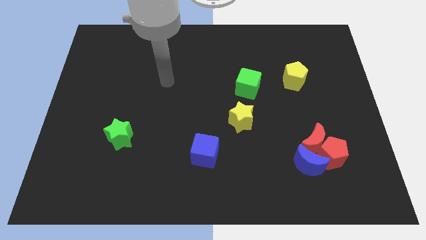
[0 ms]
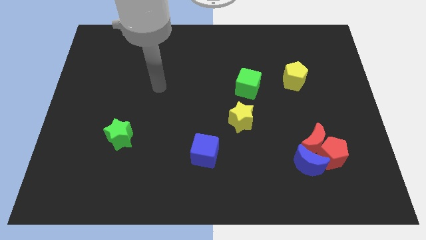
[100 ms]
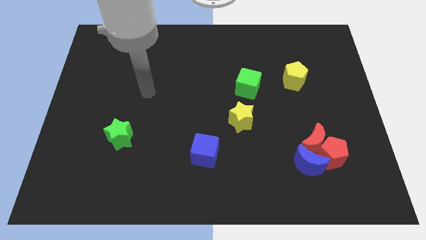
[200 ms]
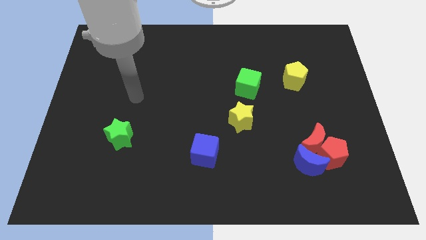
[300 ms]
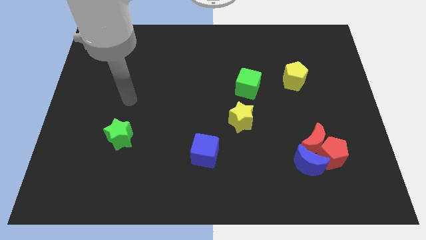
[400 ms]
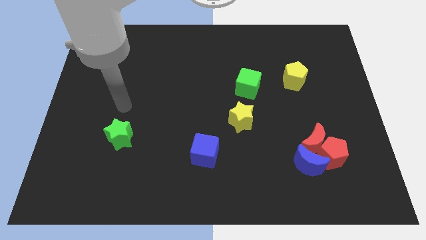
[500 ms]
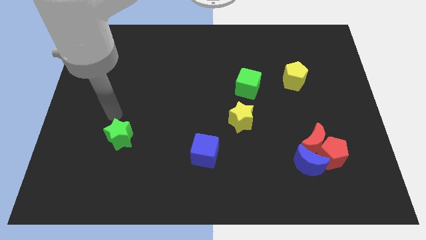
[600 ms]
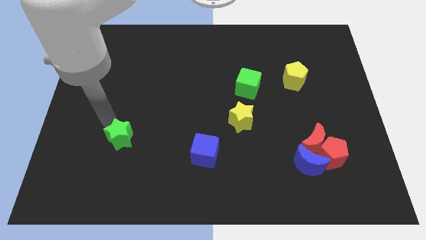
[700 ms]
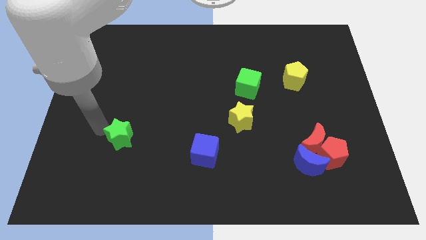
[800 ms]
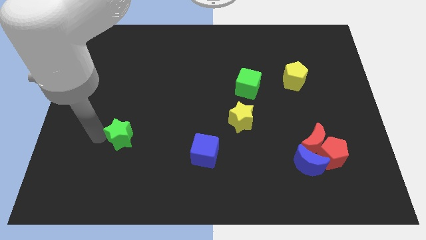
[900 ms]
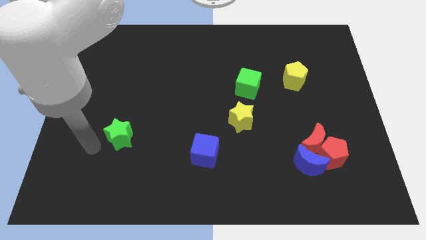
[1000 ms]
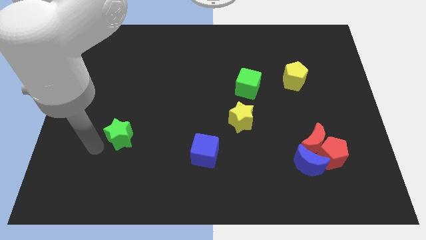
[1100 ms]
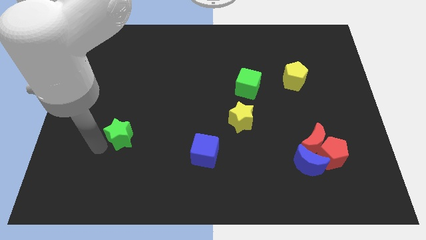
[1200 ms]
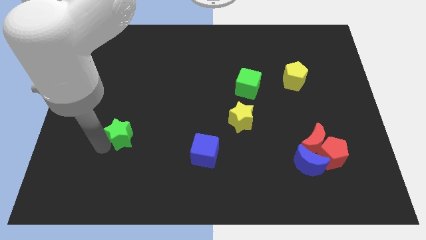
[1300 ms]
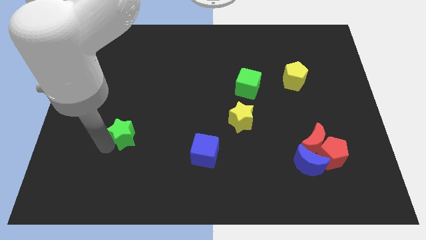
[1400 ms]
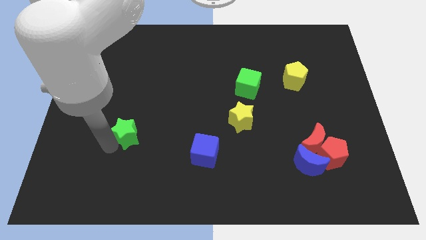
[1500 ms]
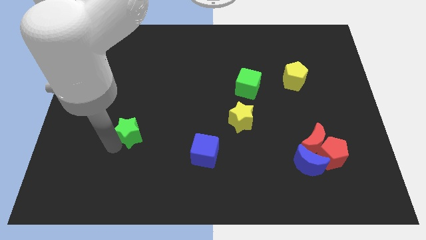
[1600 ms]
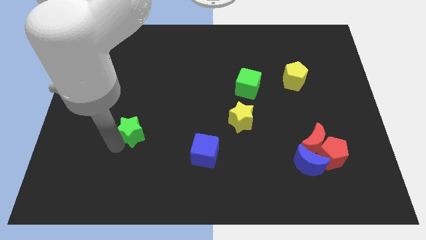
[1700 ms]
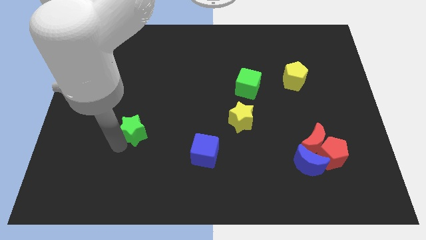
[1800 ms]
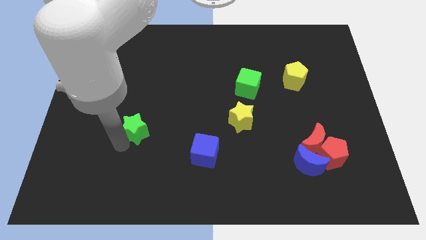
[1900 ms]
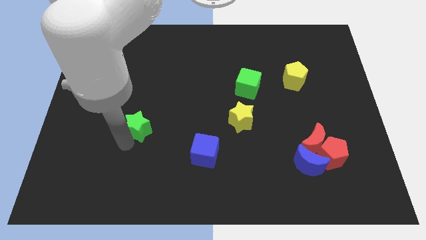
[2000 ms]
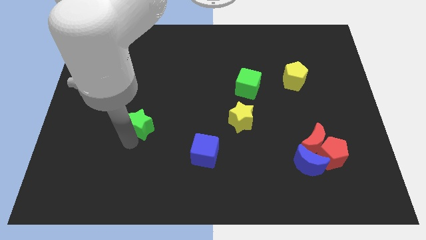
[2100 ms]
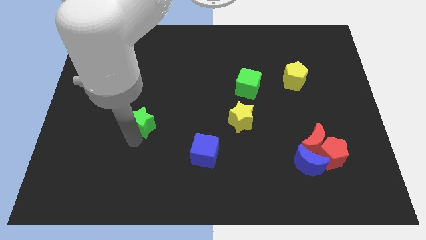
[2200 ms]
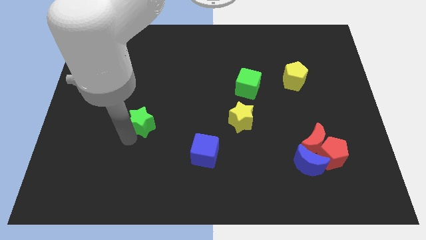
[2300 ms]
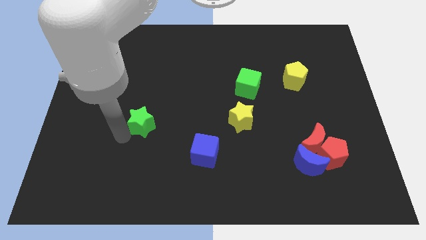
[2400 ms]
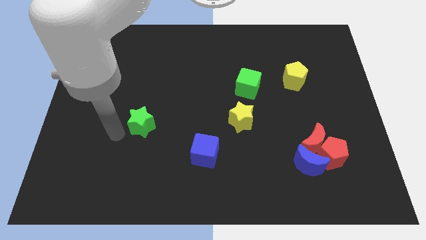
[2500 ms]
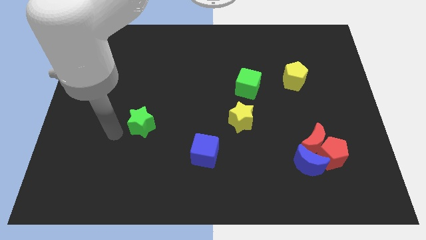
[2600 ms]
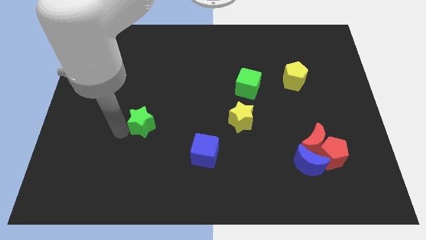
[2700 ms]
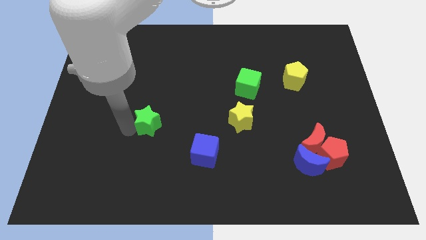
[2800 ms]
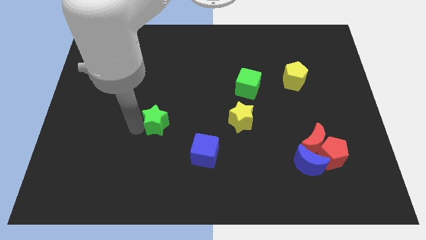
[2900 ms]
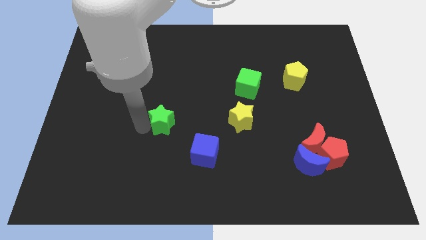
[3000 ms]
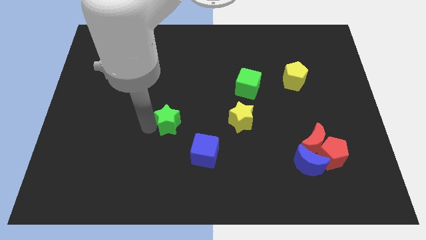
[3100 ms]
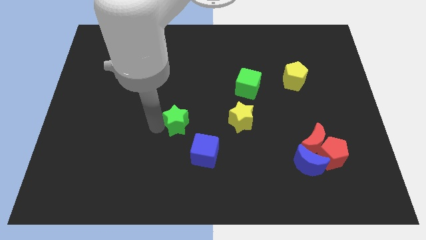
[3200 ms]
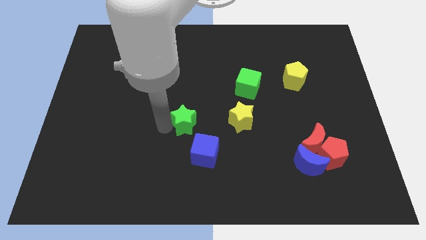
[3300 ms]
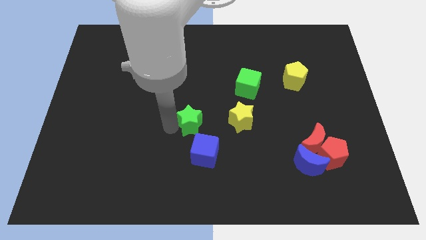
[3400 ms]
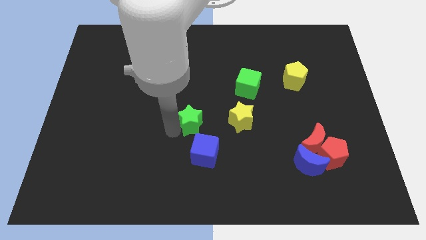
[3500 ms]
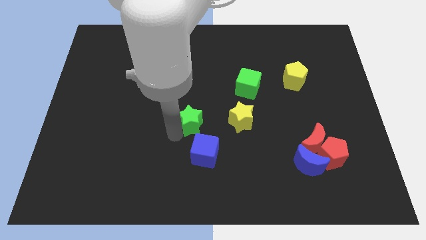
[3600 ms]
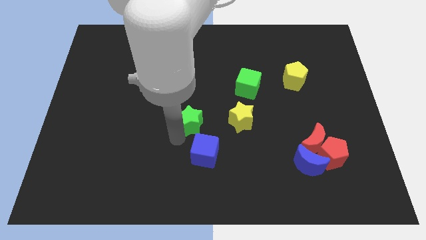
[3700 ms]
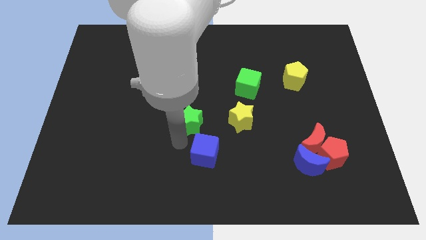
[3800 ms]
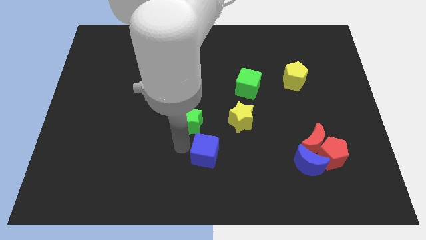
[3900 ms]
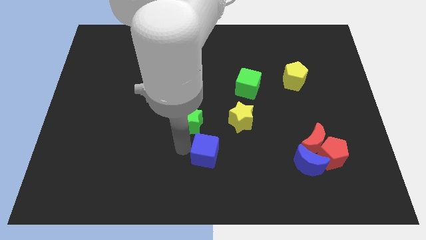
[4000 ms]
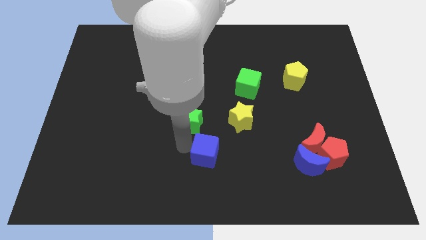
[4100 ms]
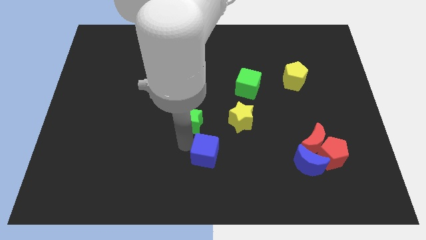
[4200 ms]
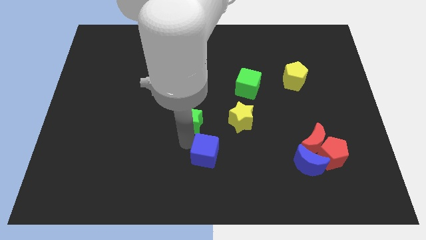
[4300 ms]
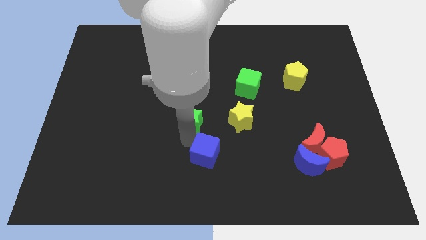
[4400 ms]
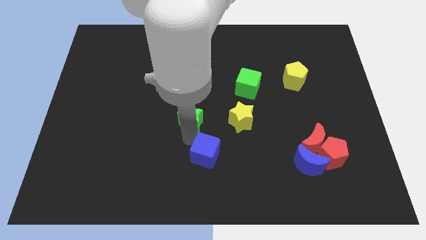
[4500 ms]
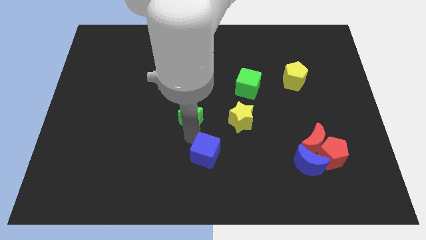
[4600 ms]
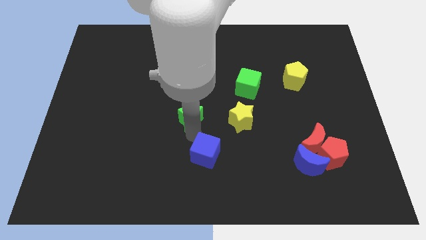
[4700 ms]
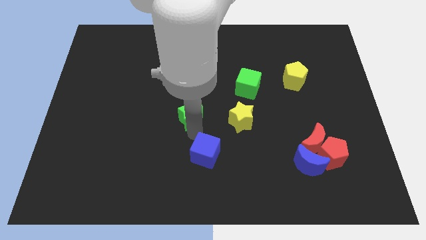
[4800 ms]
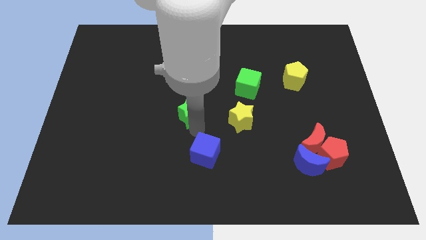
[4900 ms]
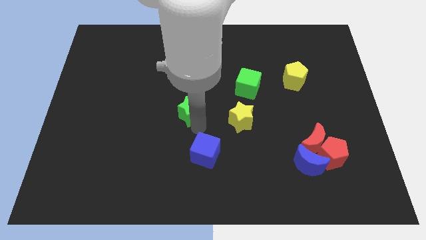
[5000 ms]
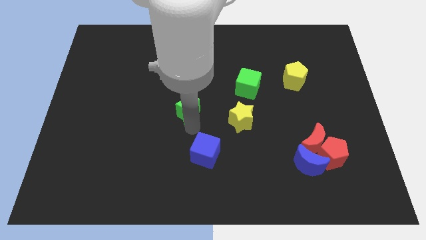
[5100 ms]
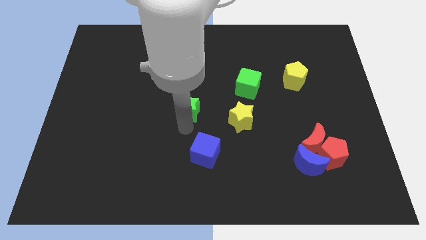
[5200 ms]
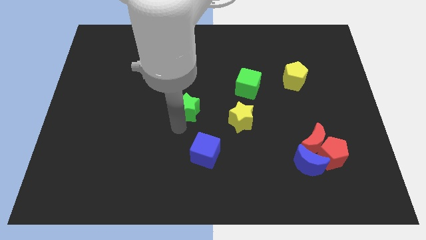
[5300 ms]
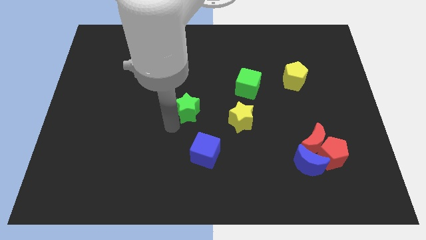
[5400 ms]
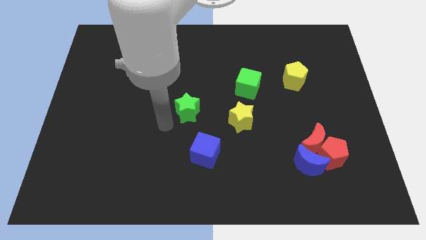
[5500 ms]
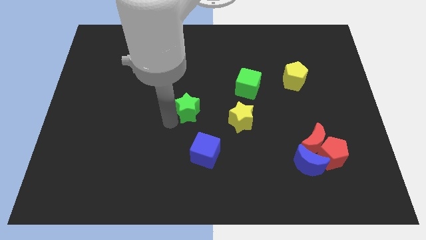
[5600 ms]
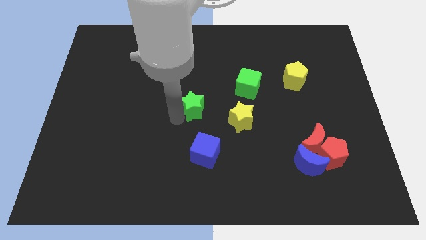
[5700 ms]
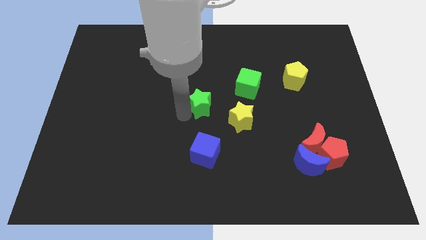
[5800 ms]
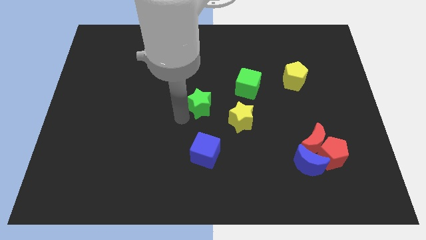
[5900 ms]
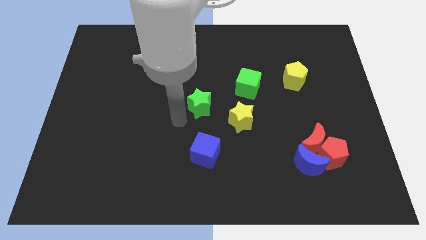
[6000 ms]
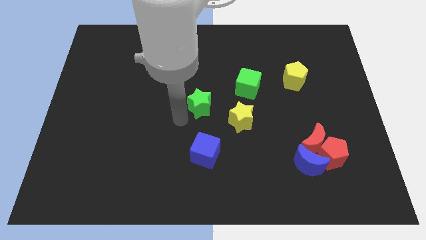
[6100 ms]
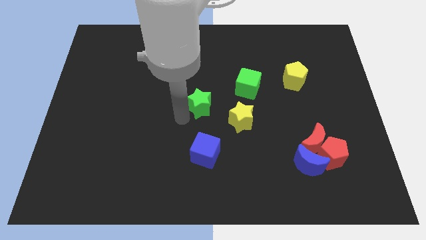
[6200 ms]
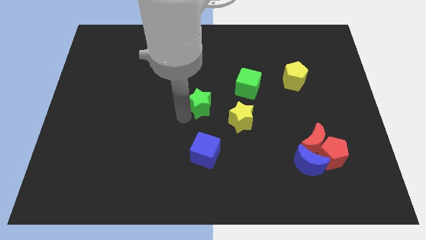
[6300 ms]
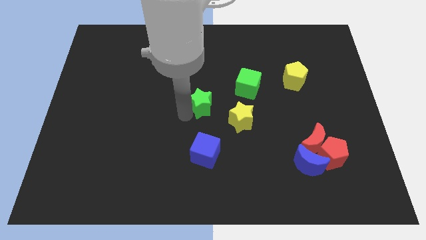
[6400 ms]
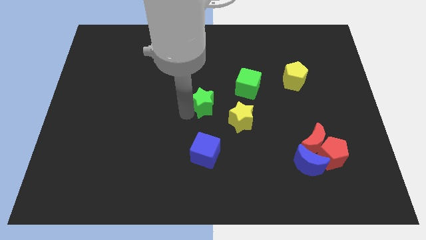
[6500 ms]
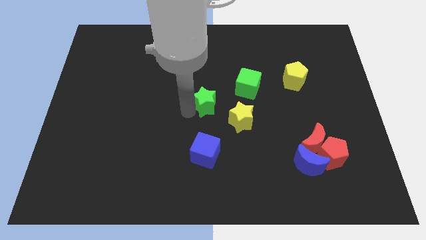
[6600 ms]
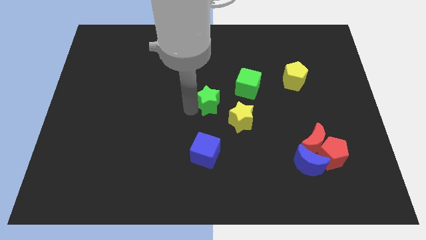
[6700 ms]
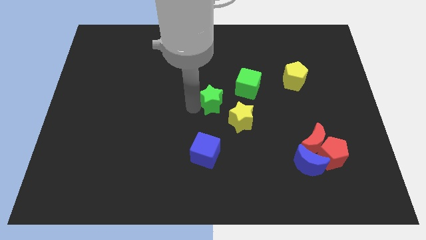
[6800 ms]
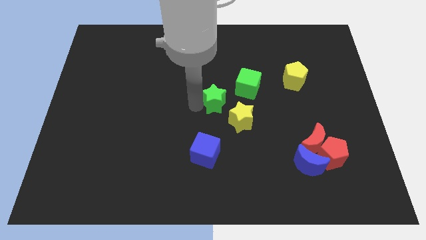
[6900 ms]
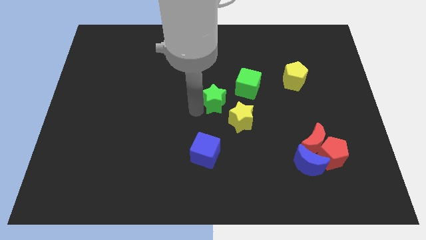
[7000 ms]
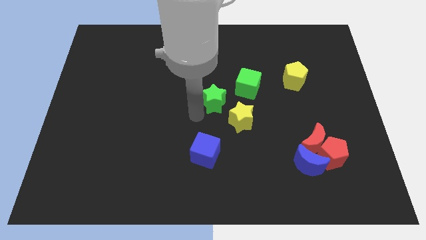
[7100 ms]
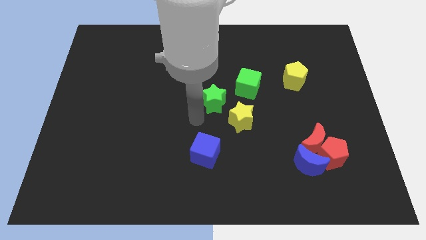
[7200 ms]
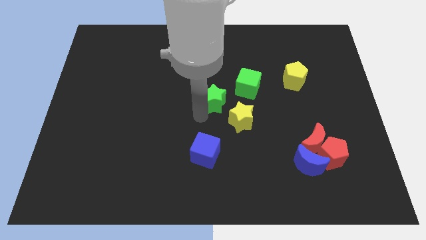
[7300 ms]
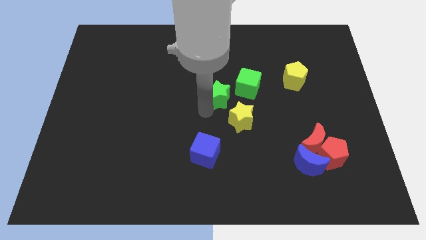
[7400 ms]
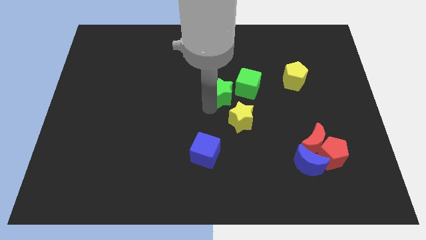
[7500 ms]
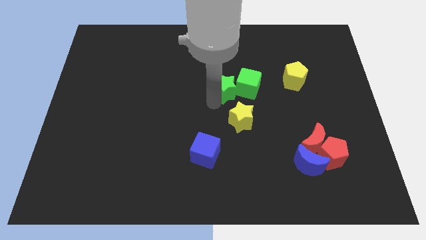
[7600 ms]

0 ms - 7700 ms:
move the green star close to the green cube

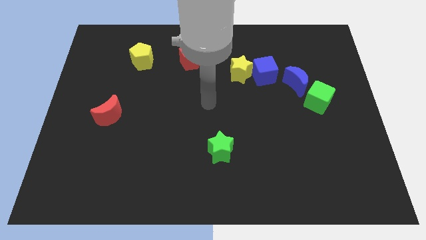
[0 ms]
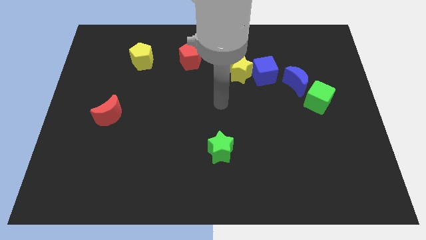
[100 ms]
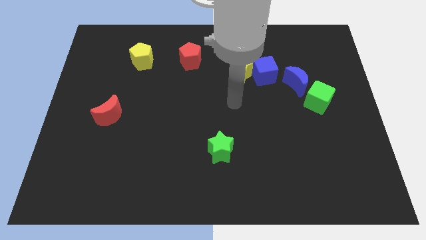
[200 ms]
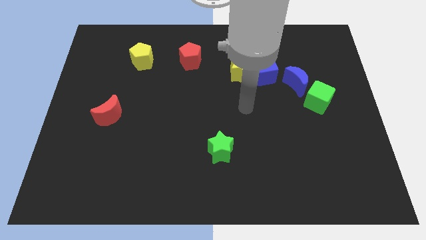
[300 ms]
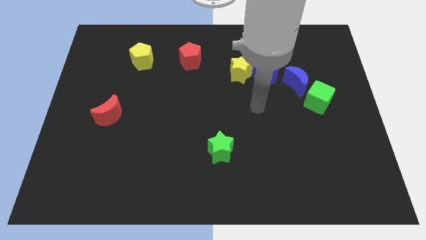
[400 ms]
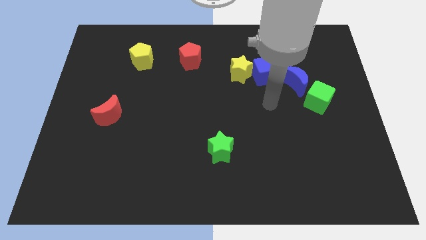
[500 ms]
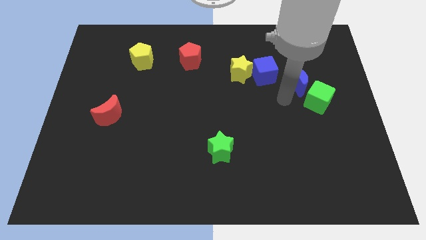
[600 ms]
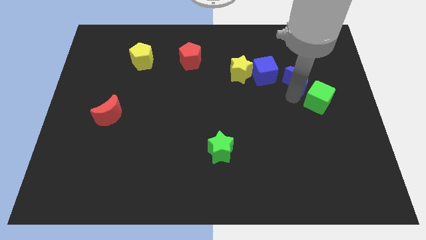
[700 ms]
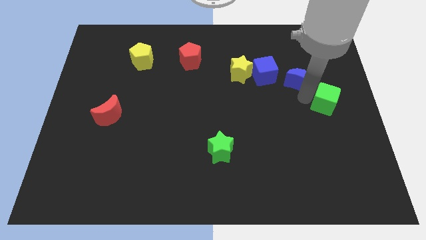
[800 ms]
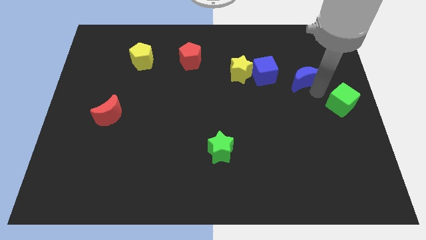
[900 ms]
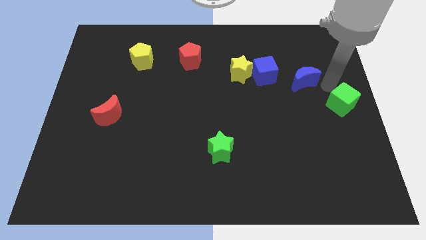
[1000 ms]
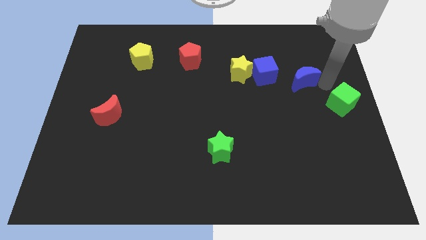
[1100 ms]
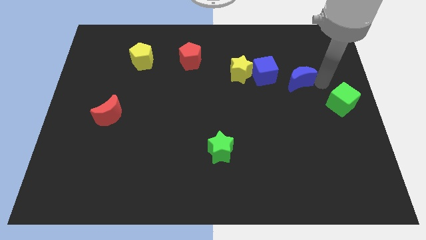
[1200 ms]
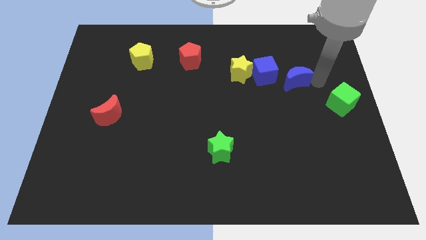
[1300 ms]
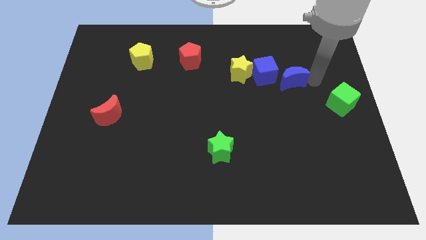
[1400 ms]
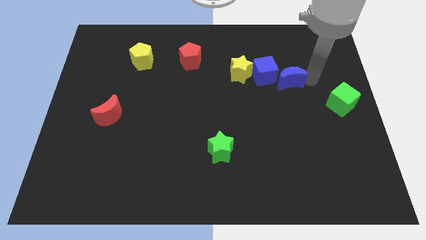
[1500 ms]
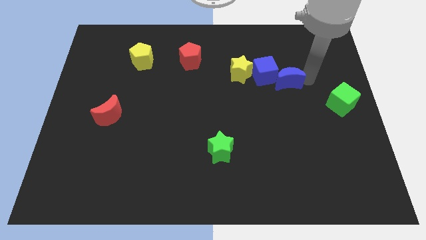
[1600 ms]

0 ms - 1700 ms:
move the blue moon close to the blue cube
